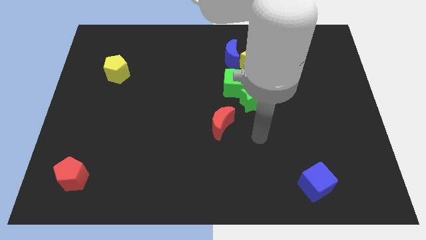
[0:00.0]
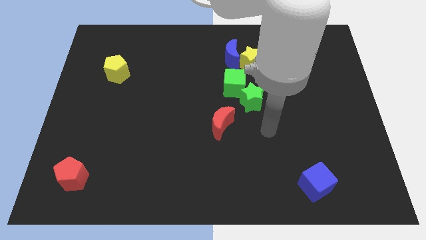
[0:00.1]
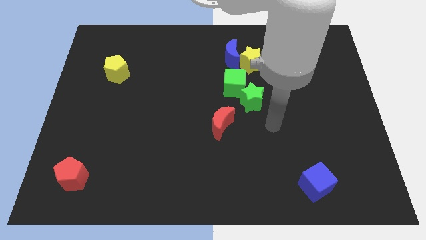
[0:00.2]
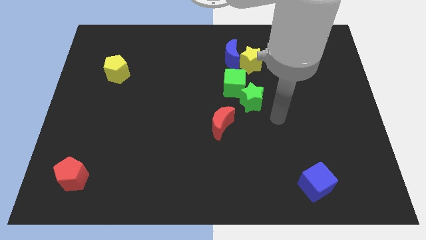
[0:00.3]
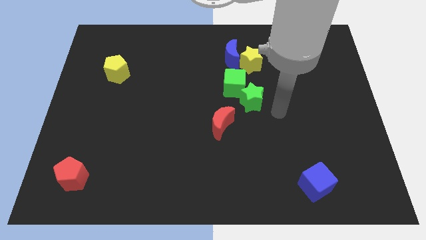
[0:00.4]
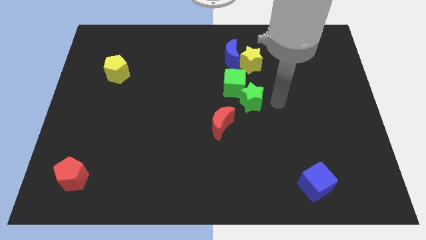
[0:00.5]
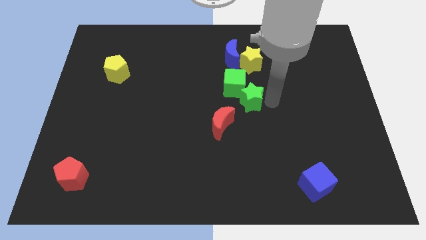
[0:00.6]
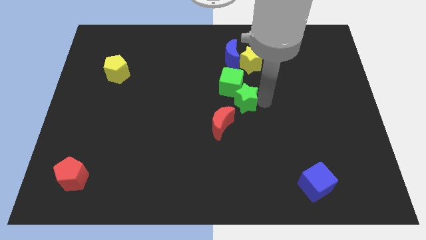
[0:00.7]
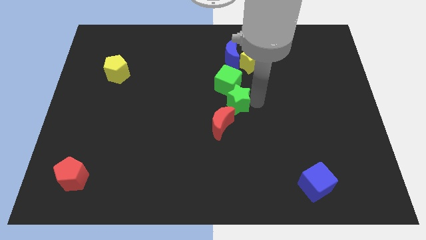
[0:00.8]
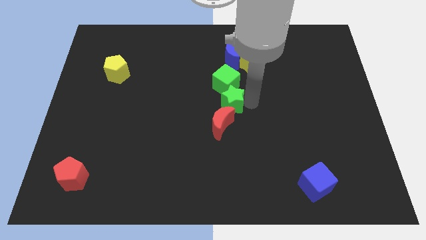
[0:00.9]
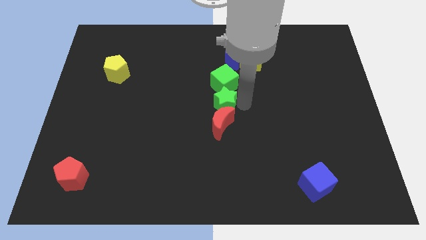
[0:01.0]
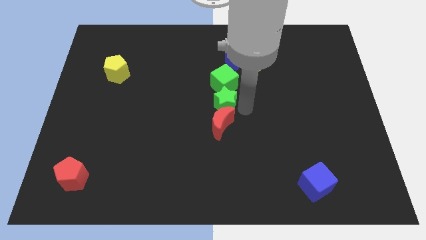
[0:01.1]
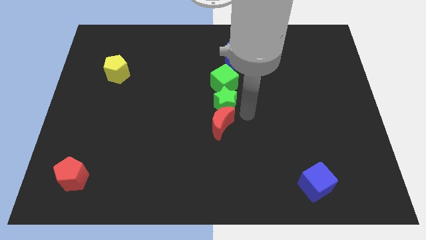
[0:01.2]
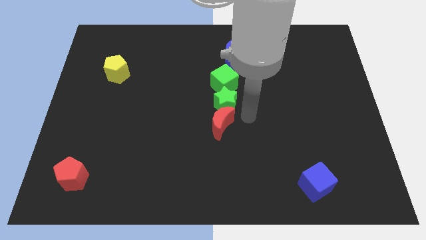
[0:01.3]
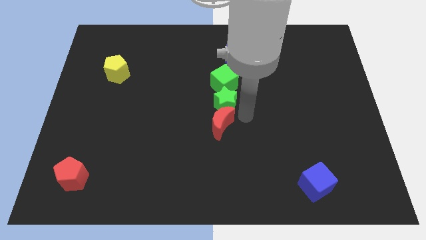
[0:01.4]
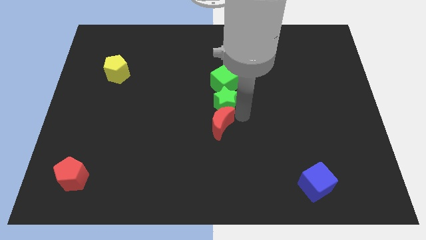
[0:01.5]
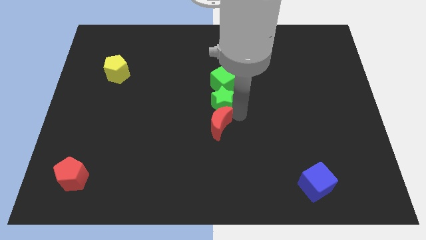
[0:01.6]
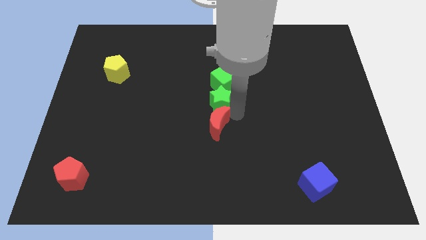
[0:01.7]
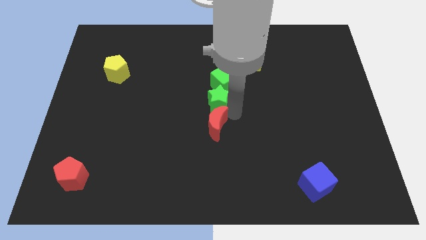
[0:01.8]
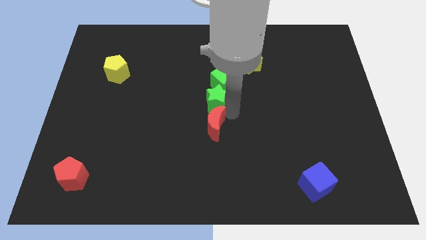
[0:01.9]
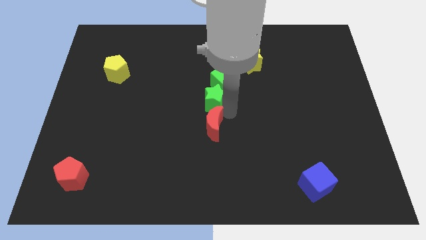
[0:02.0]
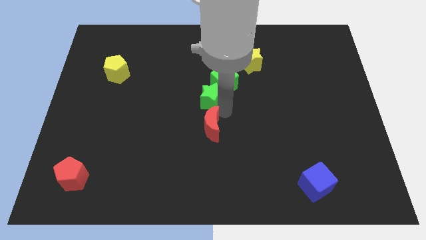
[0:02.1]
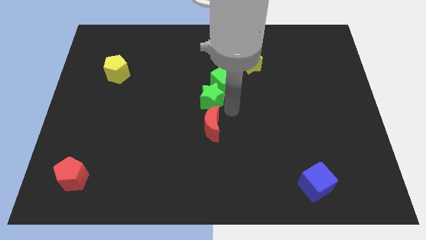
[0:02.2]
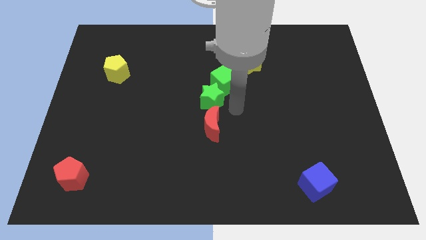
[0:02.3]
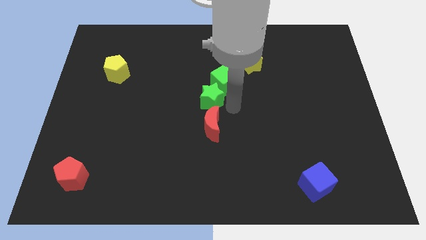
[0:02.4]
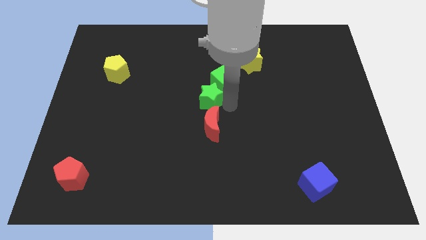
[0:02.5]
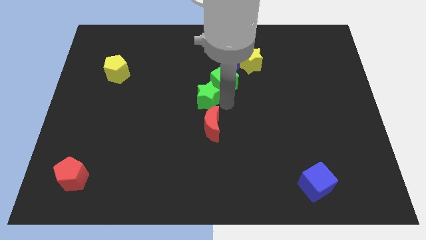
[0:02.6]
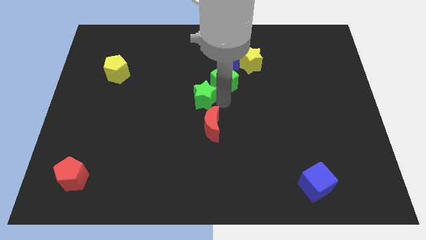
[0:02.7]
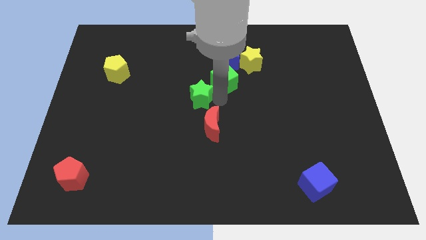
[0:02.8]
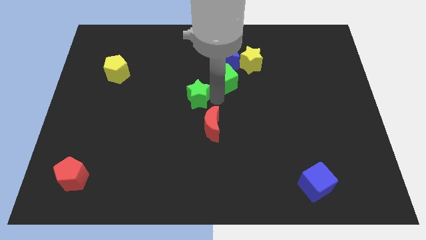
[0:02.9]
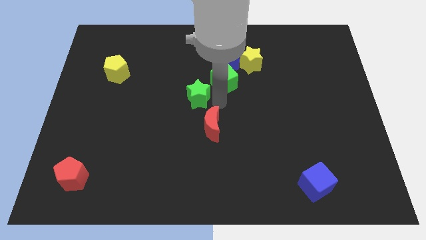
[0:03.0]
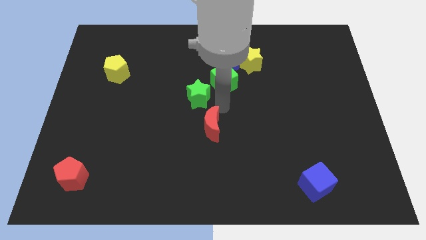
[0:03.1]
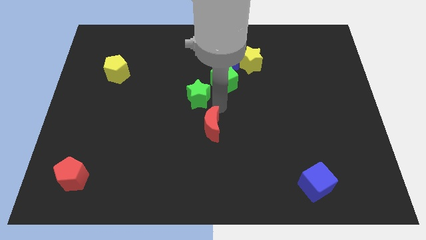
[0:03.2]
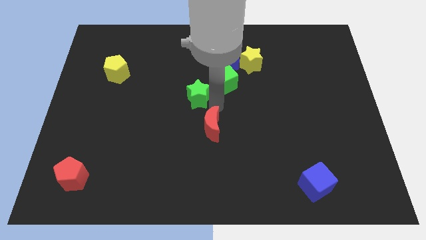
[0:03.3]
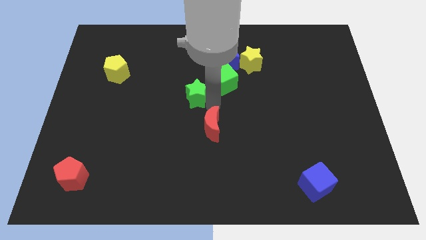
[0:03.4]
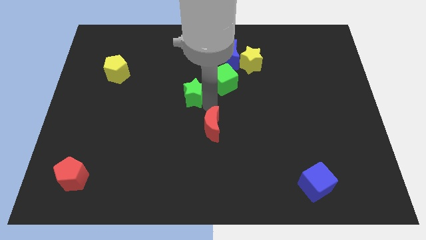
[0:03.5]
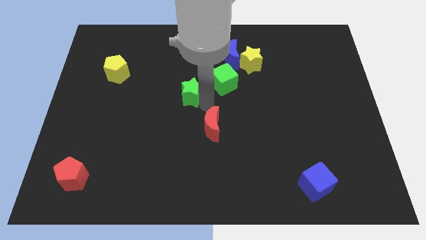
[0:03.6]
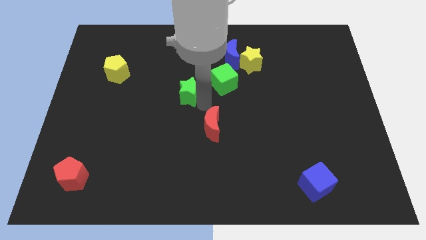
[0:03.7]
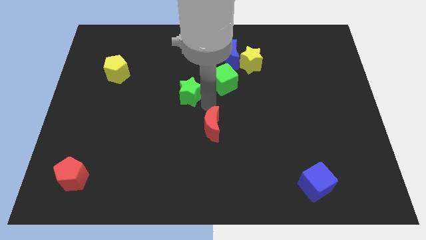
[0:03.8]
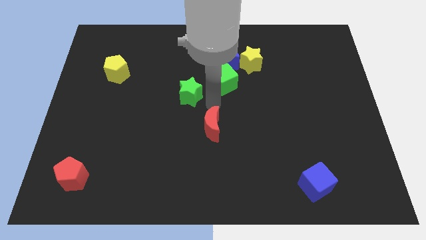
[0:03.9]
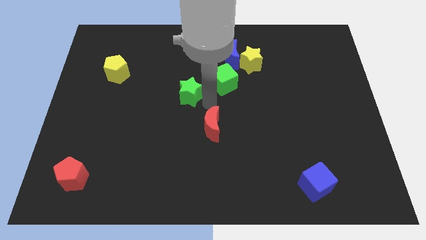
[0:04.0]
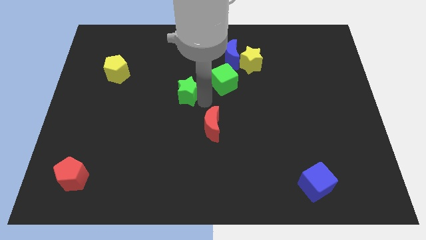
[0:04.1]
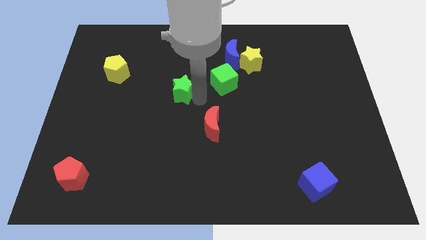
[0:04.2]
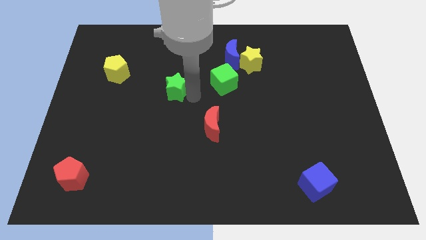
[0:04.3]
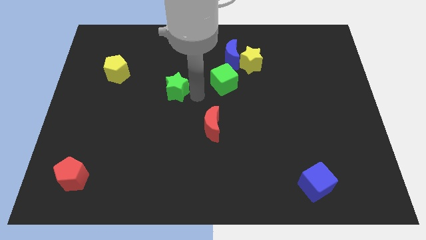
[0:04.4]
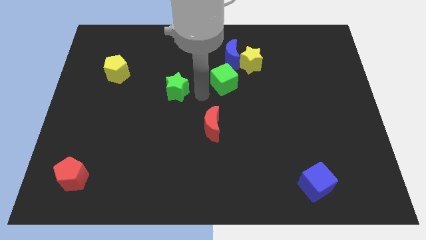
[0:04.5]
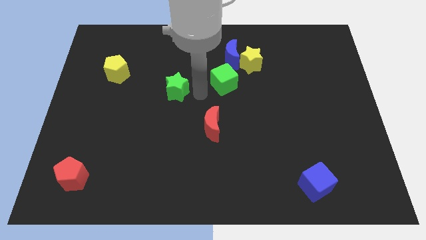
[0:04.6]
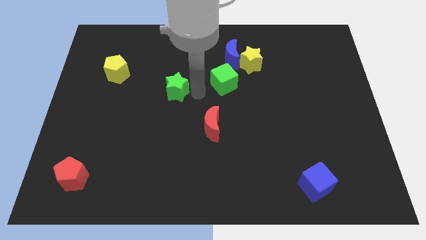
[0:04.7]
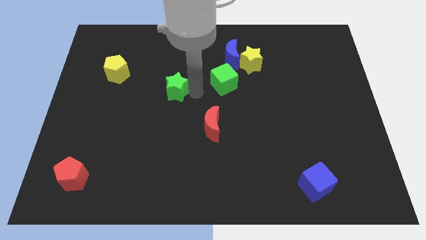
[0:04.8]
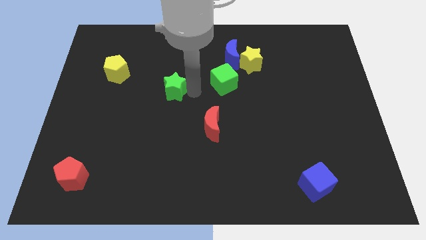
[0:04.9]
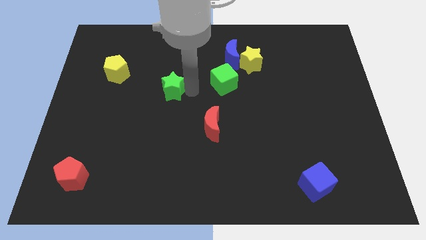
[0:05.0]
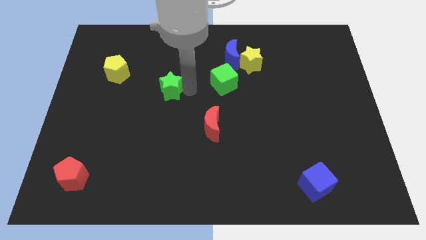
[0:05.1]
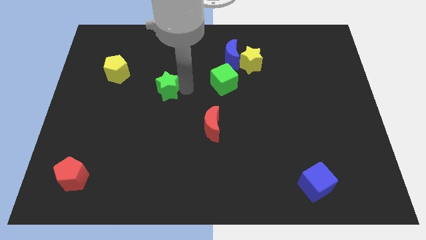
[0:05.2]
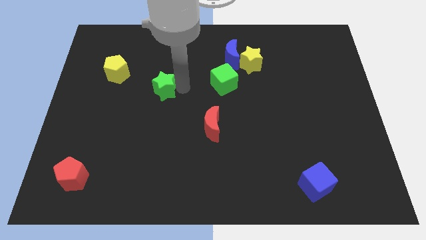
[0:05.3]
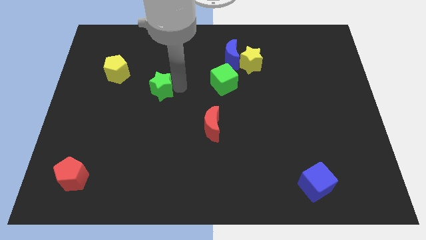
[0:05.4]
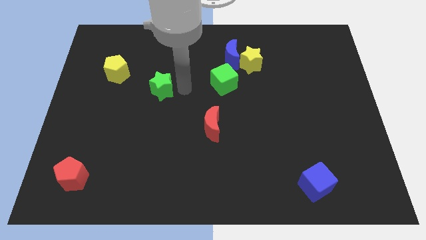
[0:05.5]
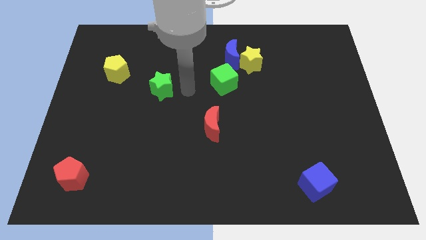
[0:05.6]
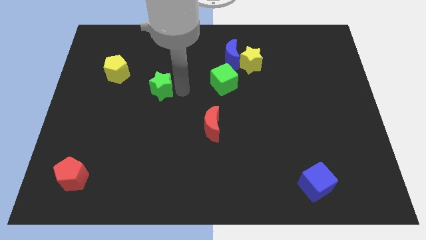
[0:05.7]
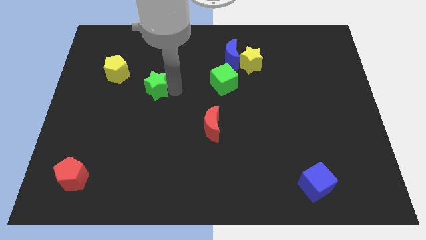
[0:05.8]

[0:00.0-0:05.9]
put the green star diagonally down and to the right of the yellow pentagon
